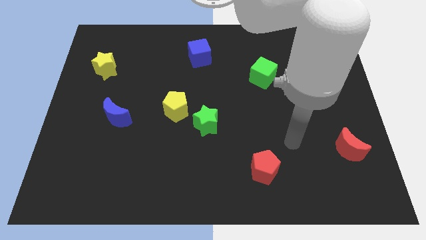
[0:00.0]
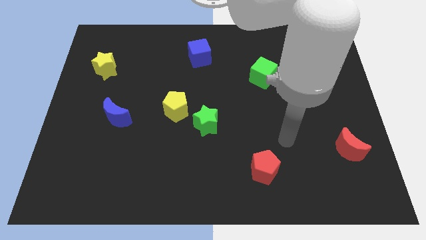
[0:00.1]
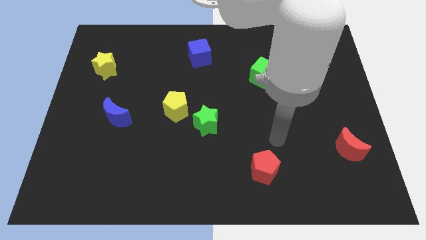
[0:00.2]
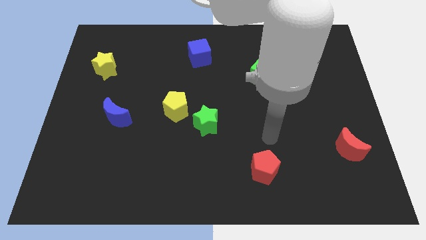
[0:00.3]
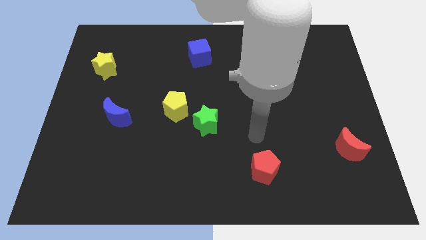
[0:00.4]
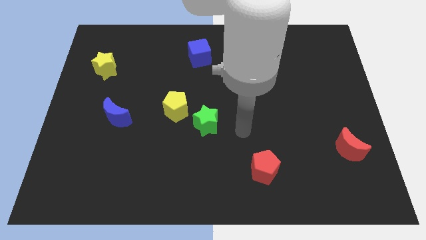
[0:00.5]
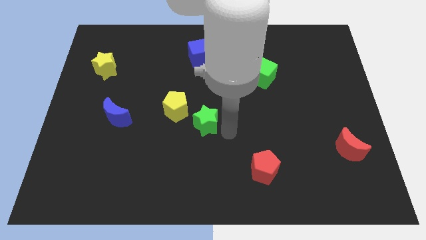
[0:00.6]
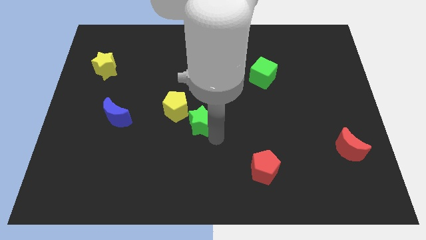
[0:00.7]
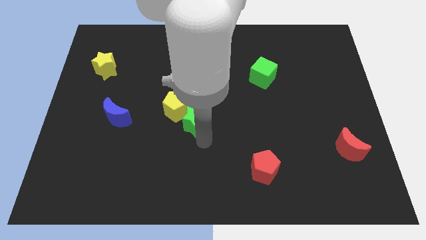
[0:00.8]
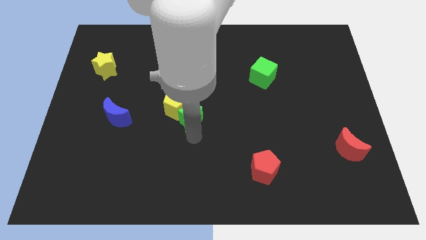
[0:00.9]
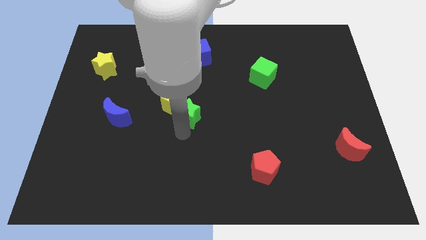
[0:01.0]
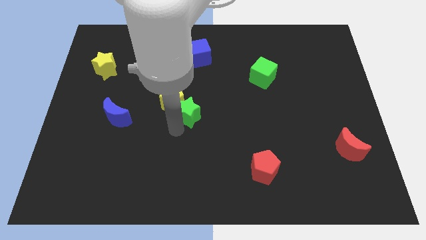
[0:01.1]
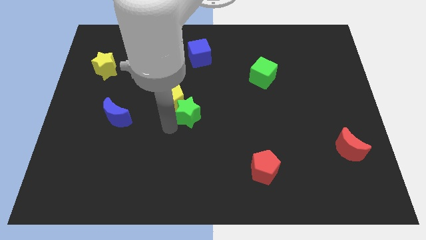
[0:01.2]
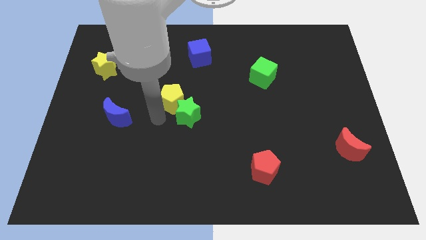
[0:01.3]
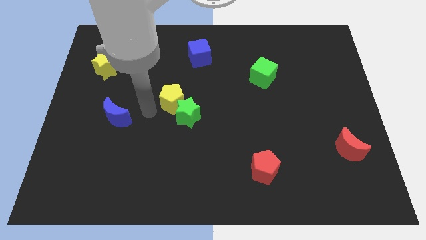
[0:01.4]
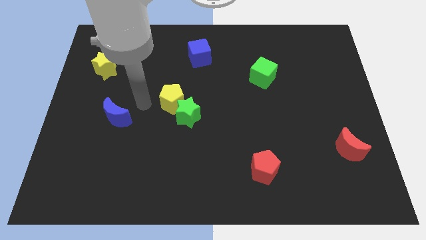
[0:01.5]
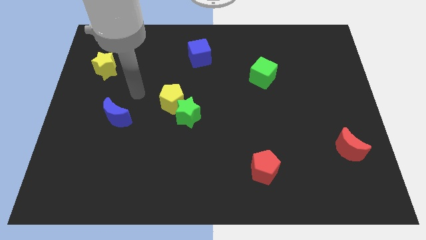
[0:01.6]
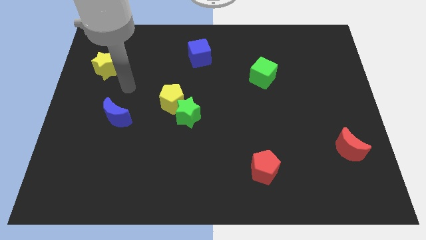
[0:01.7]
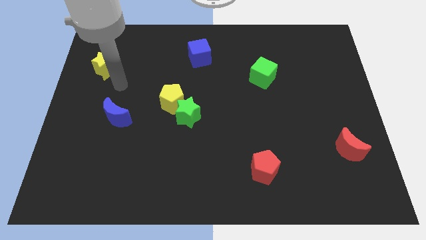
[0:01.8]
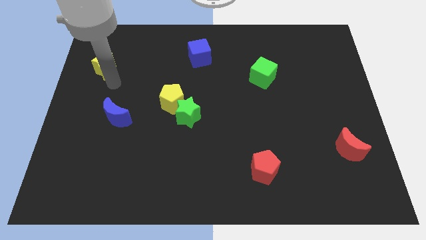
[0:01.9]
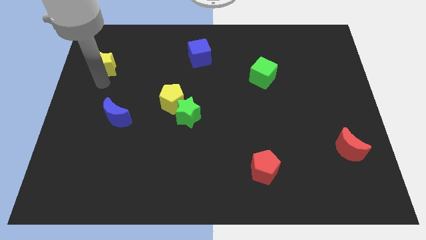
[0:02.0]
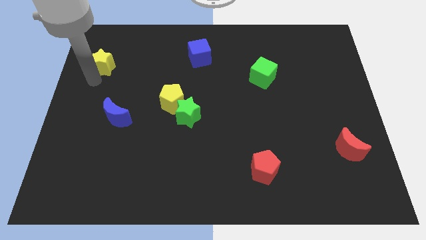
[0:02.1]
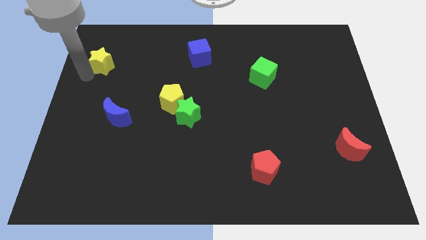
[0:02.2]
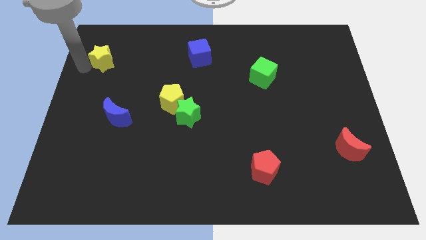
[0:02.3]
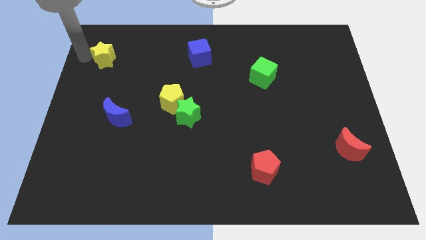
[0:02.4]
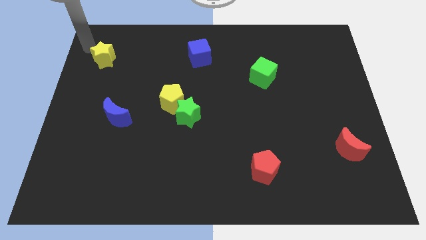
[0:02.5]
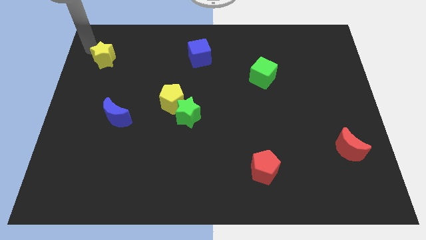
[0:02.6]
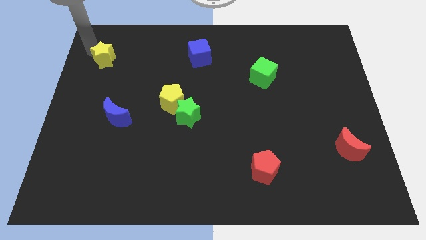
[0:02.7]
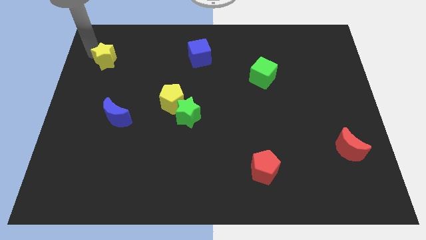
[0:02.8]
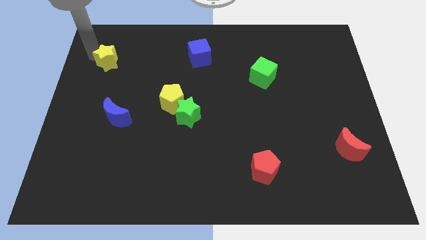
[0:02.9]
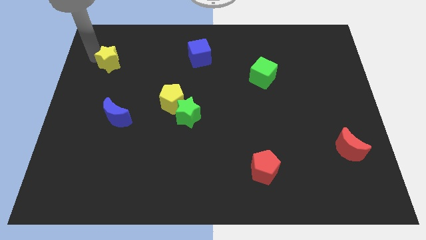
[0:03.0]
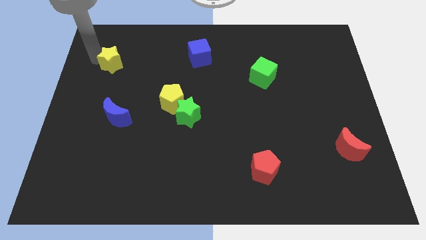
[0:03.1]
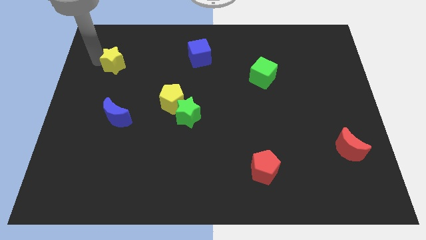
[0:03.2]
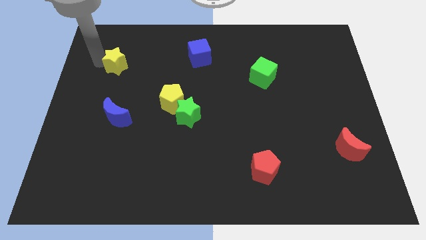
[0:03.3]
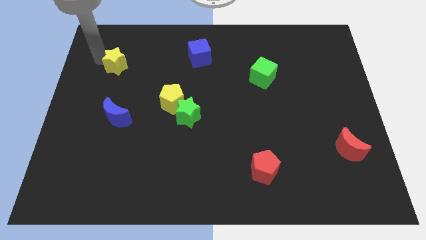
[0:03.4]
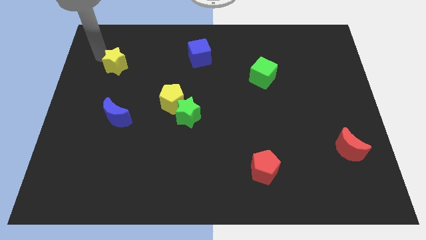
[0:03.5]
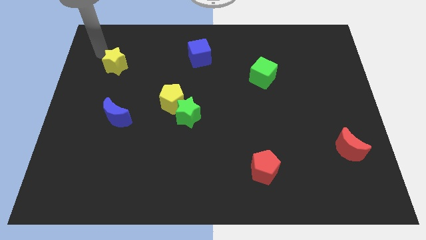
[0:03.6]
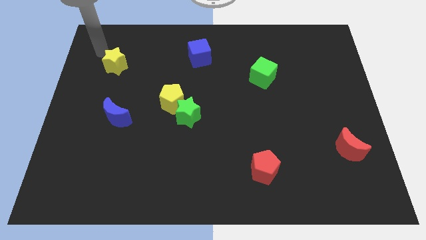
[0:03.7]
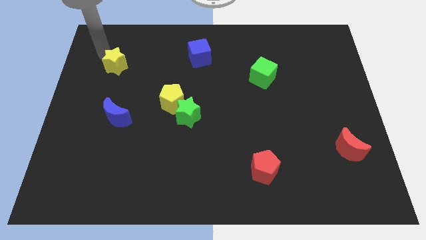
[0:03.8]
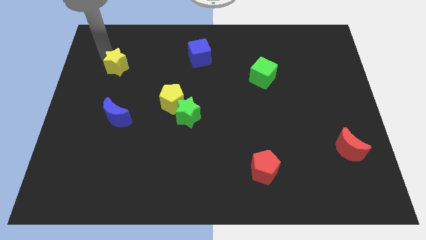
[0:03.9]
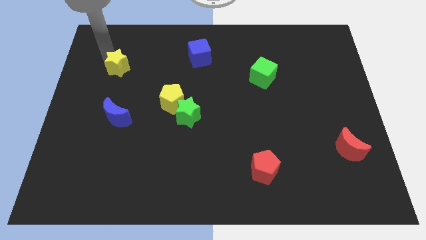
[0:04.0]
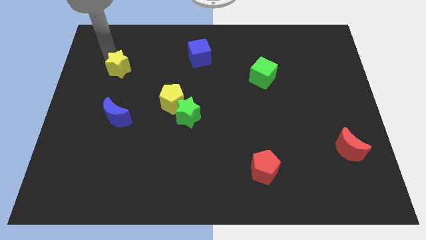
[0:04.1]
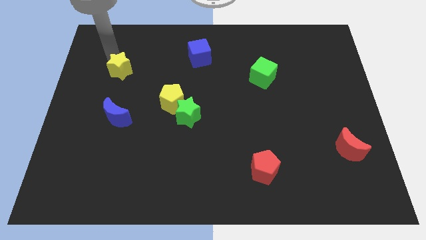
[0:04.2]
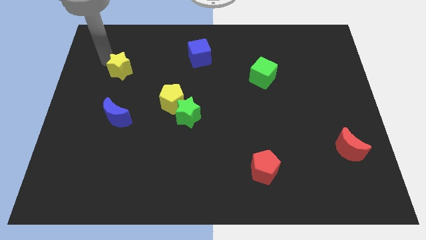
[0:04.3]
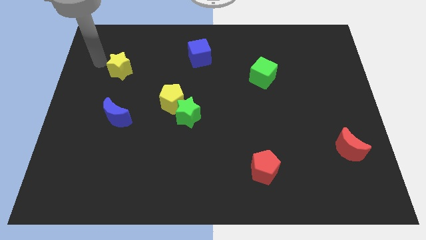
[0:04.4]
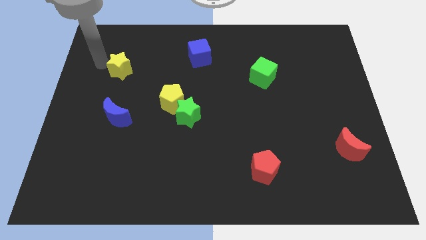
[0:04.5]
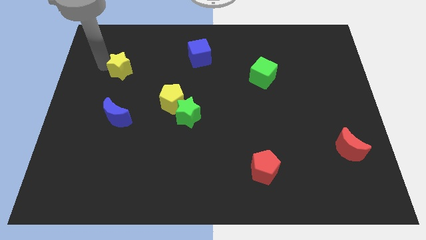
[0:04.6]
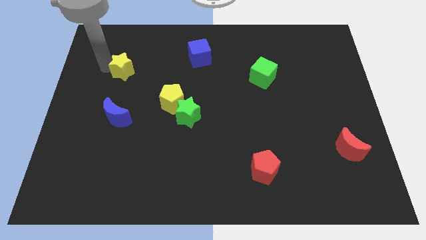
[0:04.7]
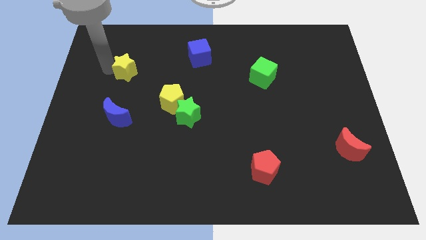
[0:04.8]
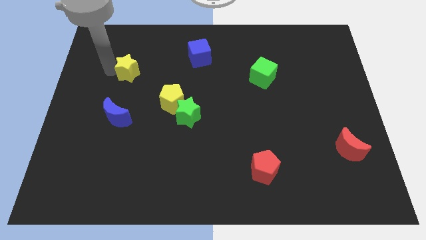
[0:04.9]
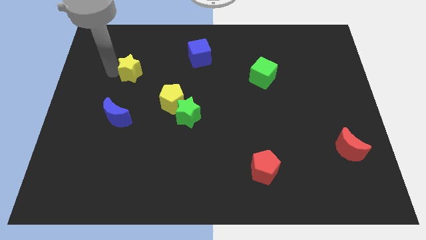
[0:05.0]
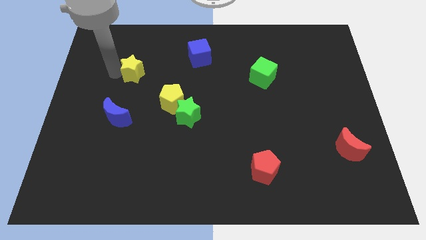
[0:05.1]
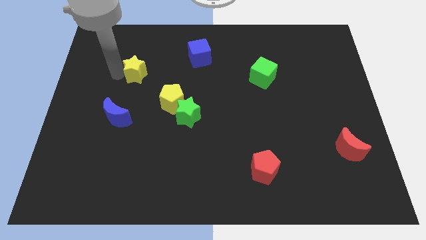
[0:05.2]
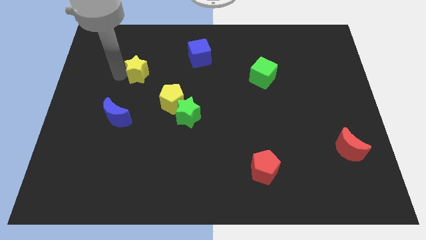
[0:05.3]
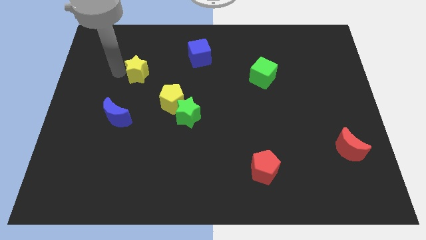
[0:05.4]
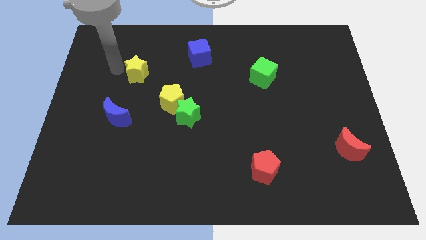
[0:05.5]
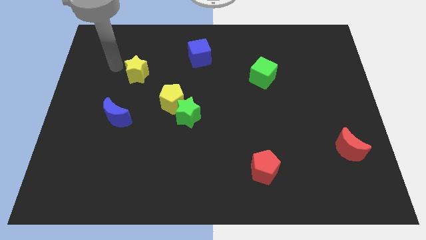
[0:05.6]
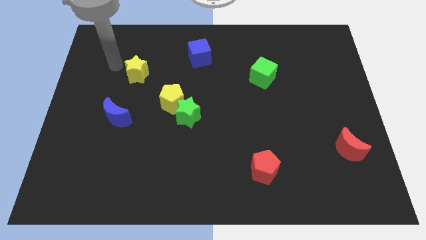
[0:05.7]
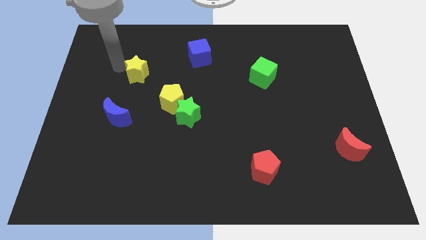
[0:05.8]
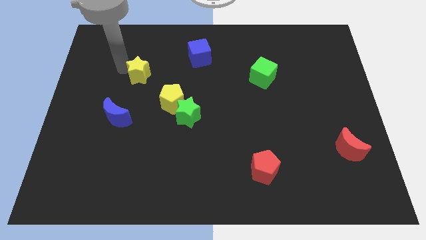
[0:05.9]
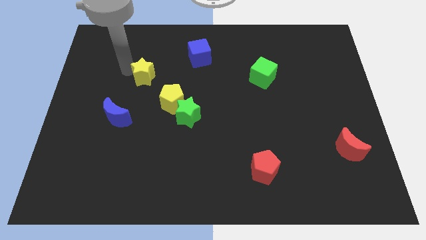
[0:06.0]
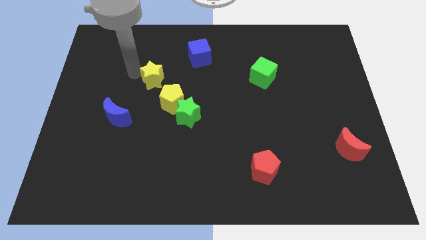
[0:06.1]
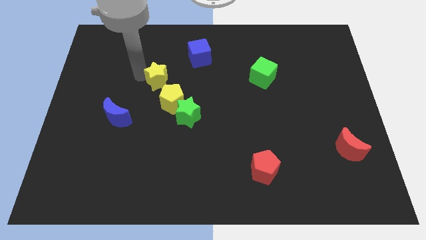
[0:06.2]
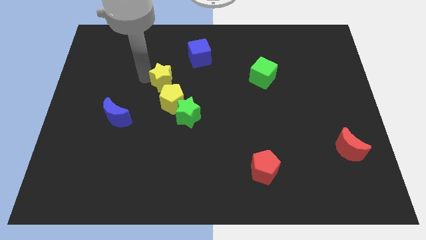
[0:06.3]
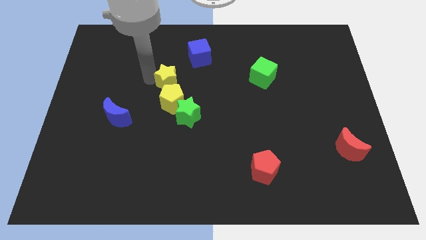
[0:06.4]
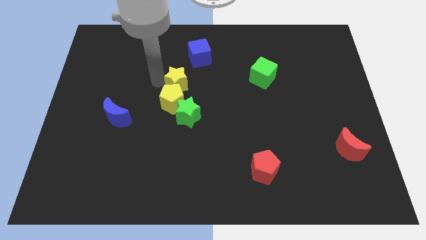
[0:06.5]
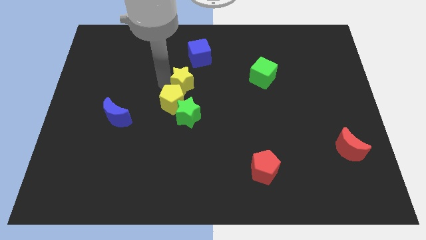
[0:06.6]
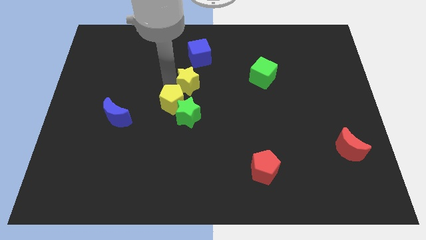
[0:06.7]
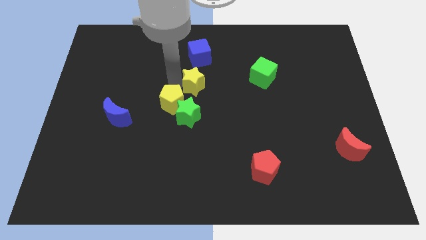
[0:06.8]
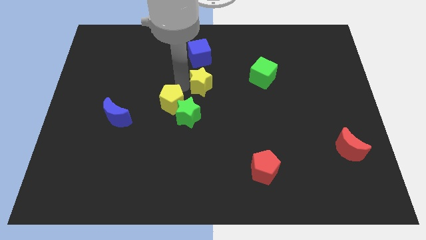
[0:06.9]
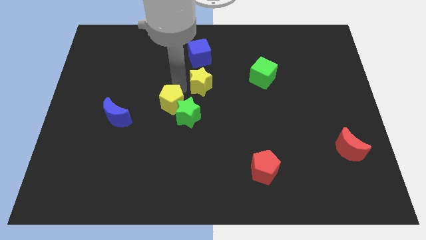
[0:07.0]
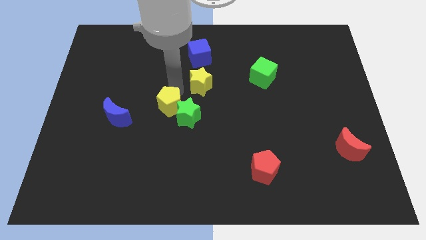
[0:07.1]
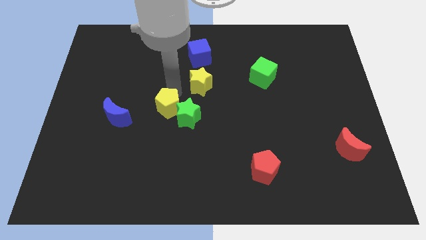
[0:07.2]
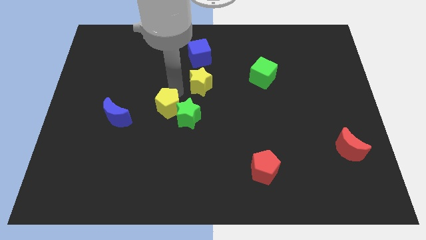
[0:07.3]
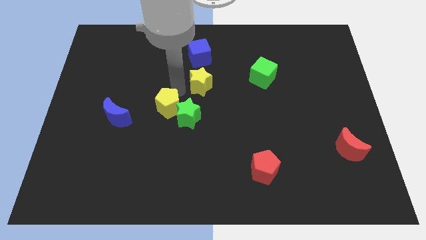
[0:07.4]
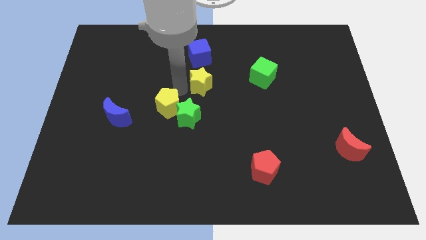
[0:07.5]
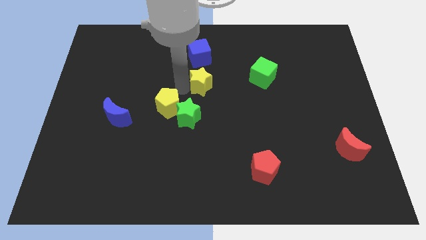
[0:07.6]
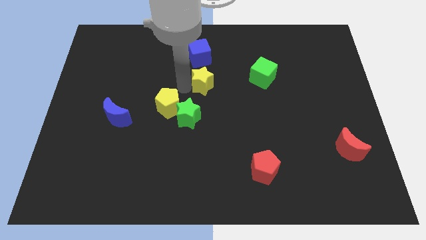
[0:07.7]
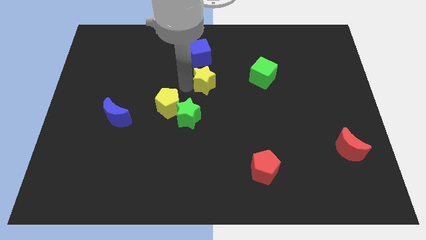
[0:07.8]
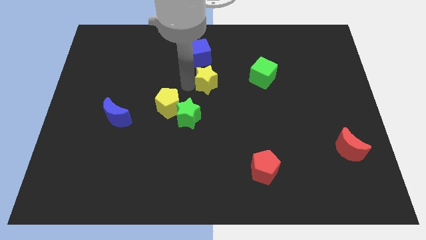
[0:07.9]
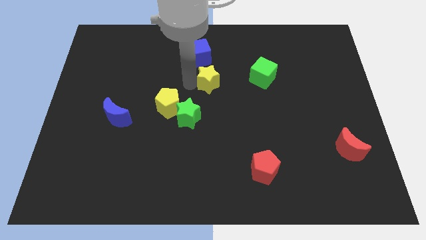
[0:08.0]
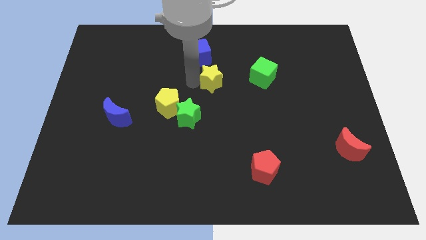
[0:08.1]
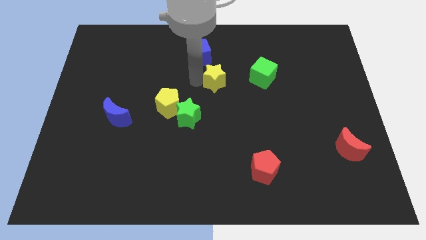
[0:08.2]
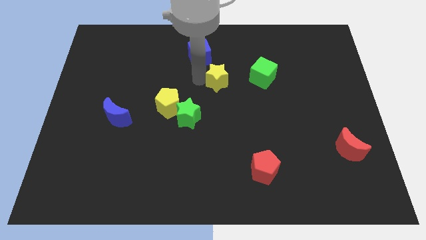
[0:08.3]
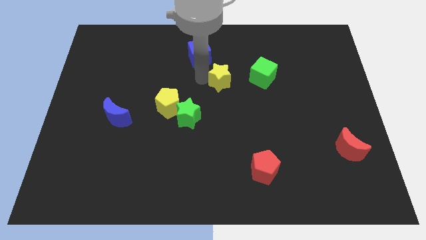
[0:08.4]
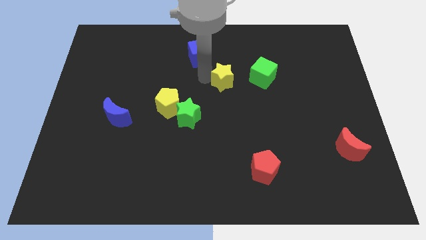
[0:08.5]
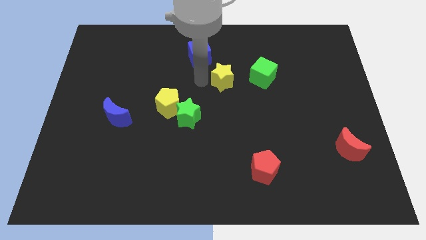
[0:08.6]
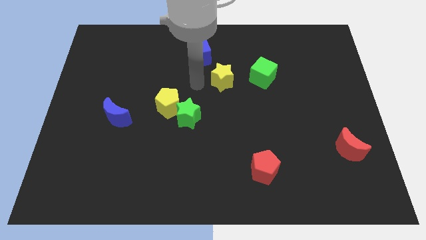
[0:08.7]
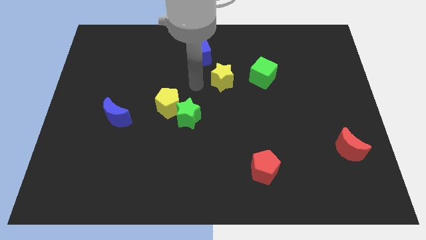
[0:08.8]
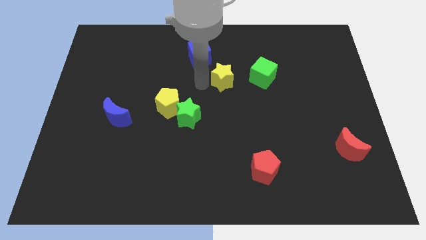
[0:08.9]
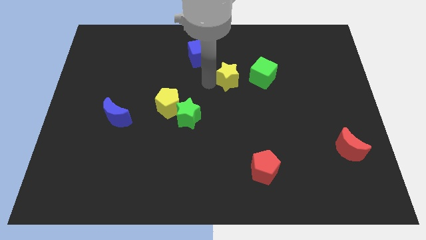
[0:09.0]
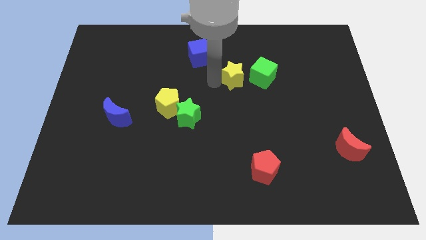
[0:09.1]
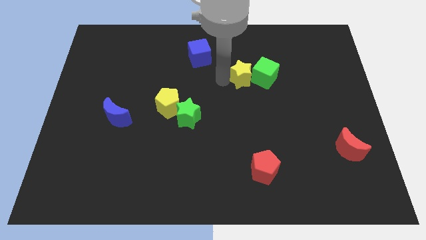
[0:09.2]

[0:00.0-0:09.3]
push the yellow star towards the green cube
